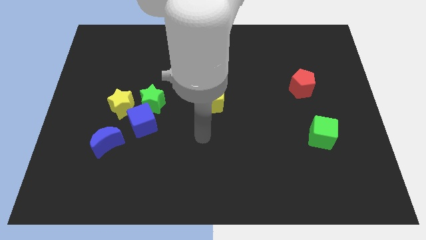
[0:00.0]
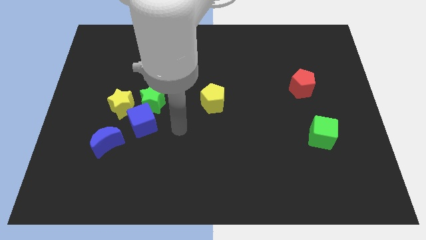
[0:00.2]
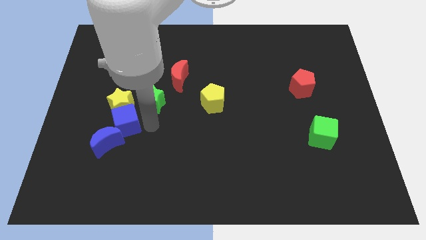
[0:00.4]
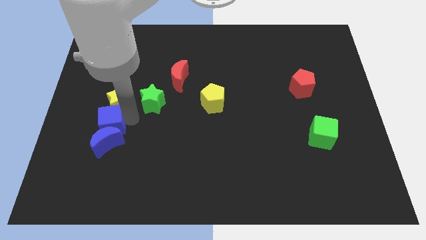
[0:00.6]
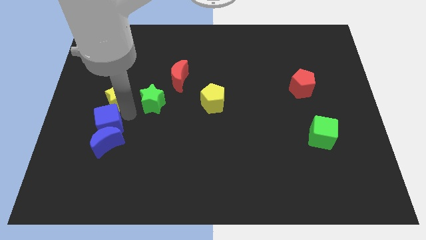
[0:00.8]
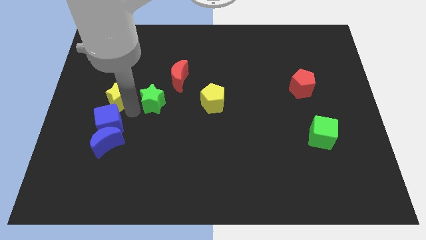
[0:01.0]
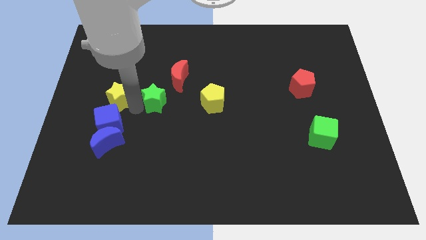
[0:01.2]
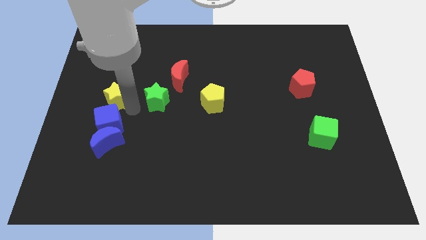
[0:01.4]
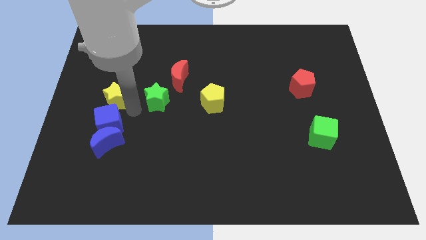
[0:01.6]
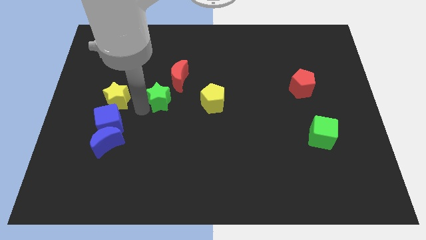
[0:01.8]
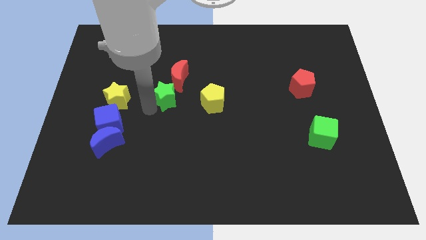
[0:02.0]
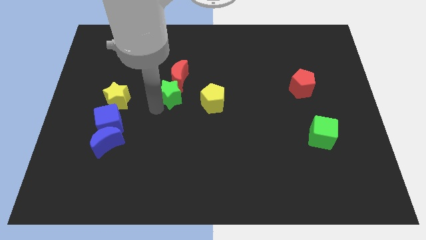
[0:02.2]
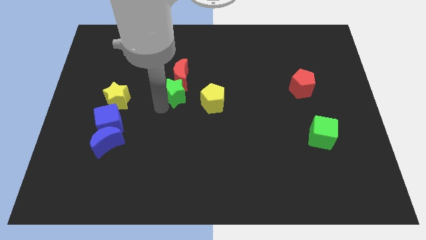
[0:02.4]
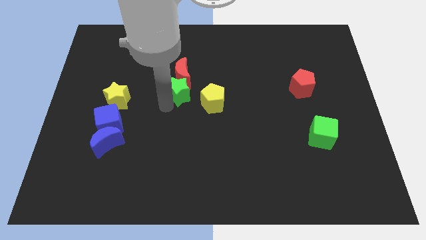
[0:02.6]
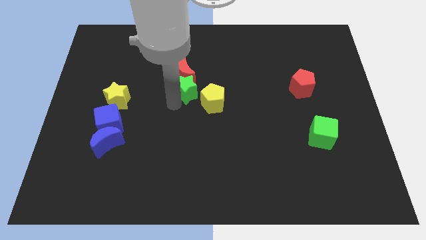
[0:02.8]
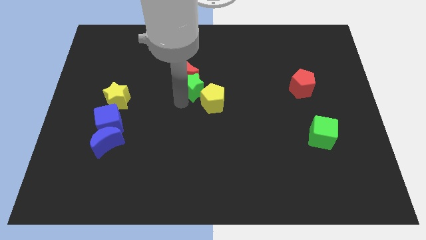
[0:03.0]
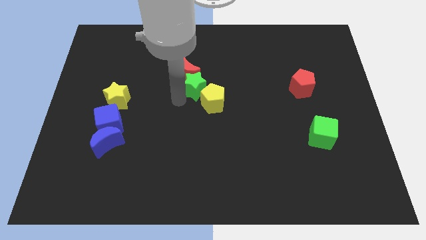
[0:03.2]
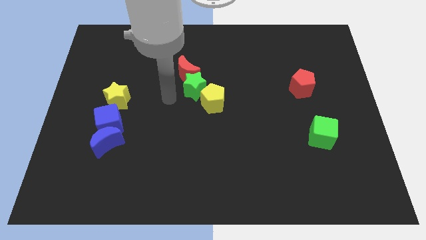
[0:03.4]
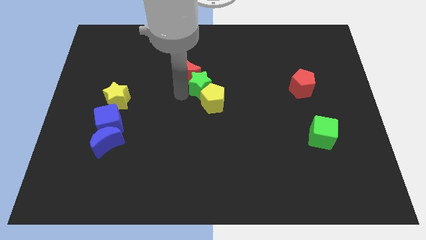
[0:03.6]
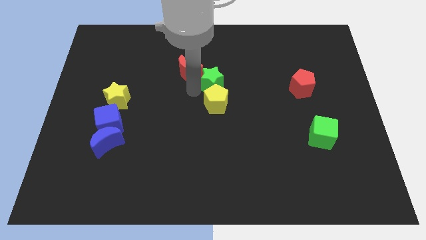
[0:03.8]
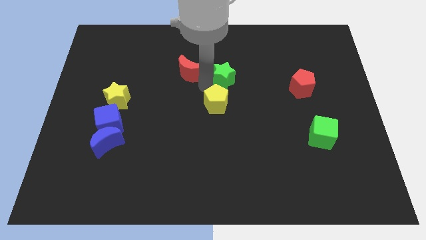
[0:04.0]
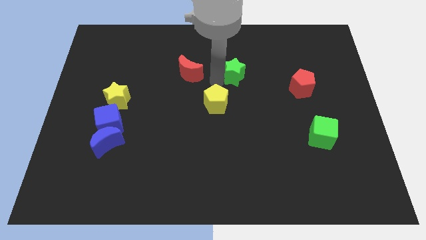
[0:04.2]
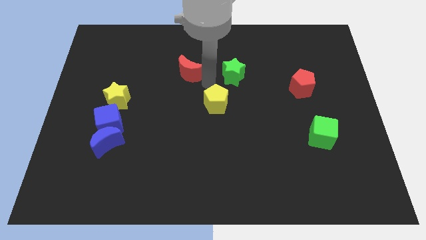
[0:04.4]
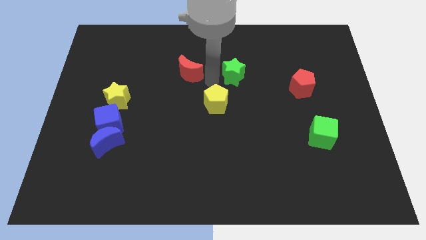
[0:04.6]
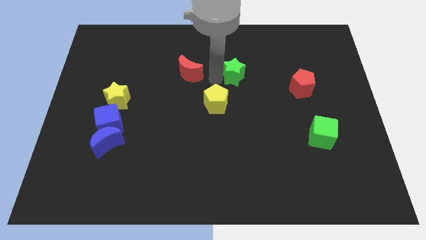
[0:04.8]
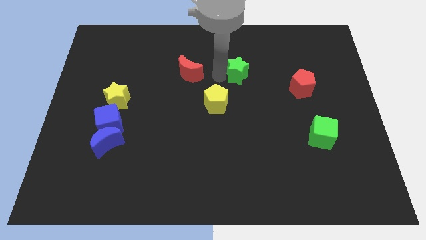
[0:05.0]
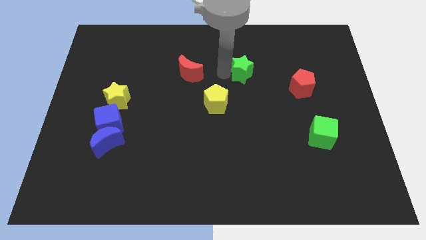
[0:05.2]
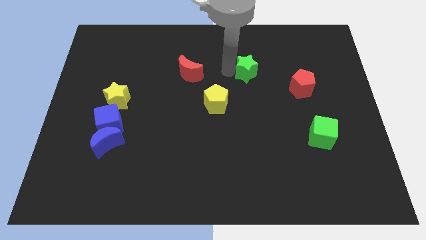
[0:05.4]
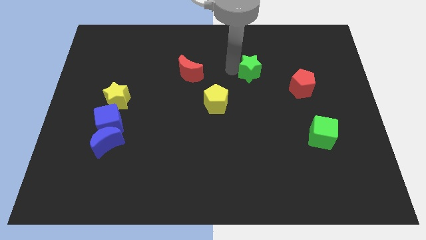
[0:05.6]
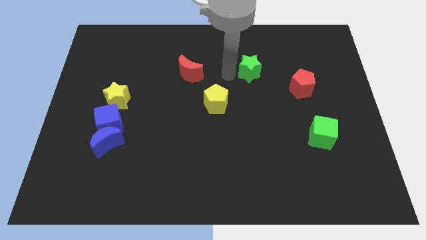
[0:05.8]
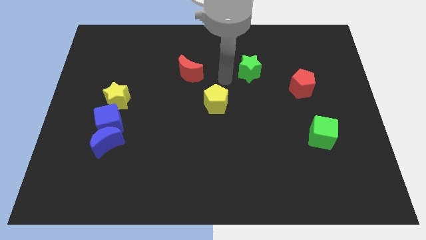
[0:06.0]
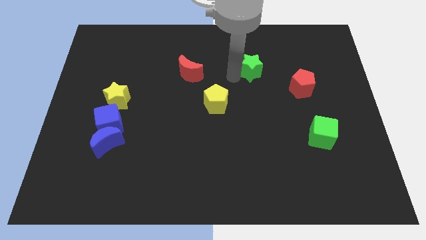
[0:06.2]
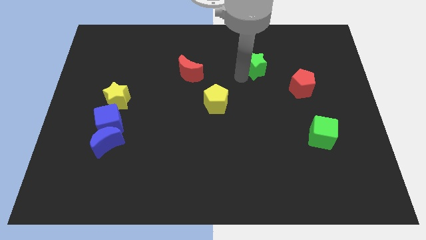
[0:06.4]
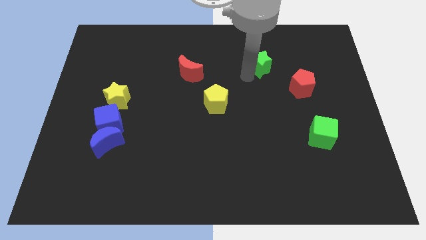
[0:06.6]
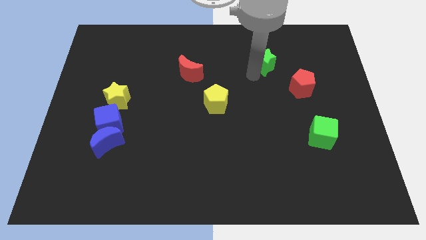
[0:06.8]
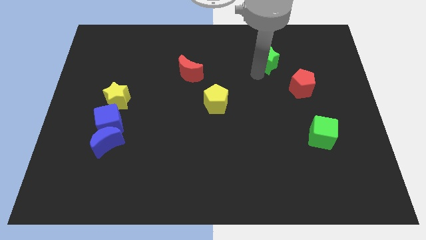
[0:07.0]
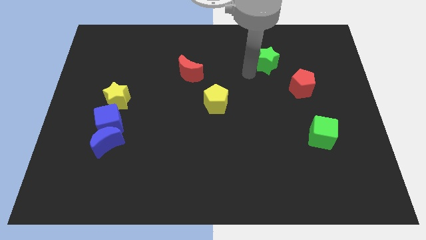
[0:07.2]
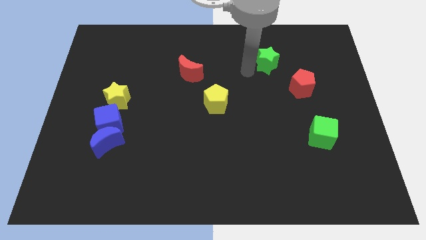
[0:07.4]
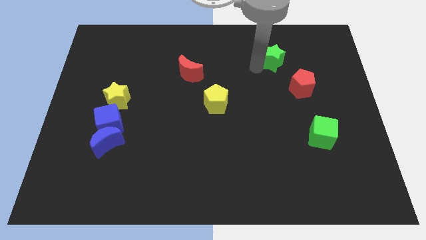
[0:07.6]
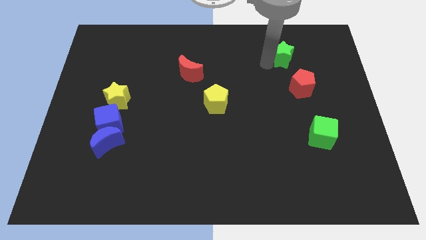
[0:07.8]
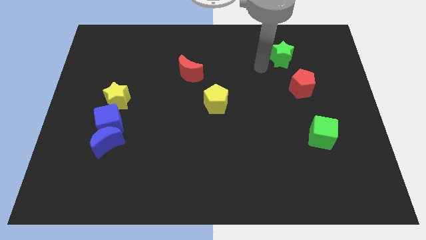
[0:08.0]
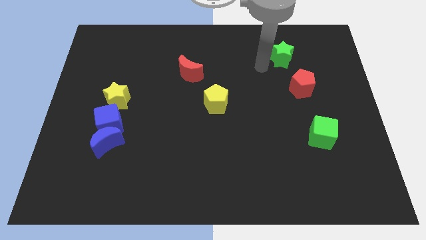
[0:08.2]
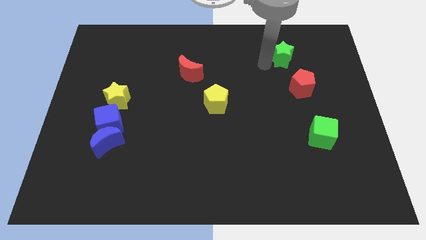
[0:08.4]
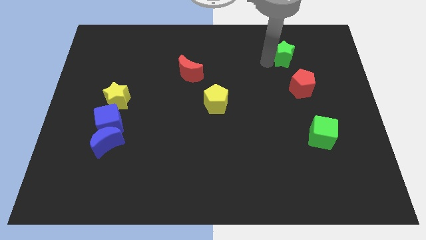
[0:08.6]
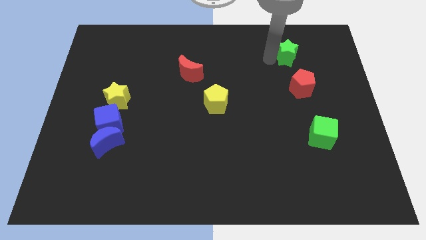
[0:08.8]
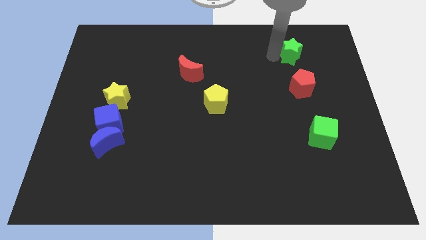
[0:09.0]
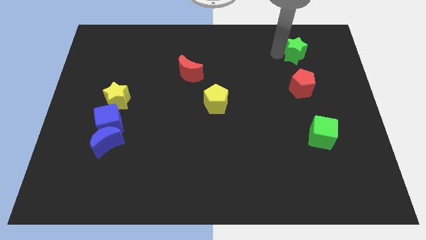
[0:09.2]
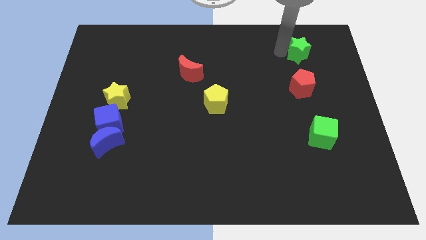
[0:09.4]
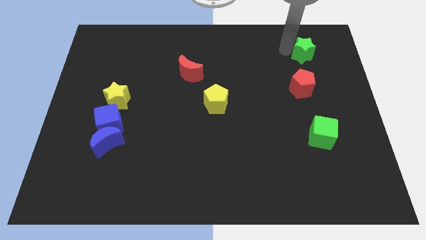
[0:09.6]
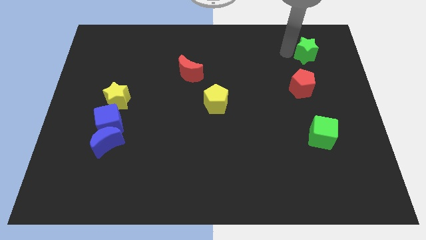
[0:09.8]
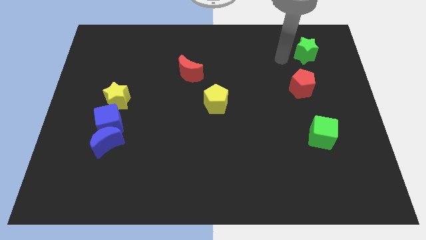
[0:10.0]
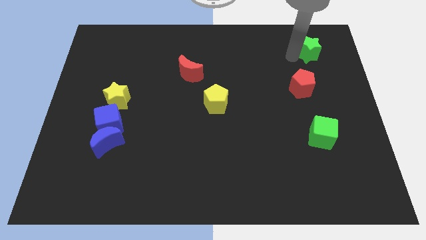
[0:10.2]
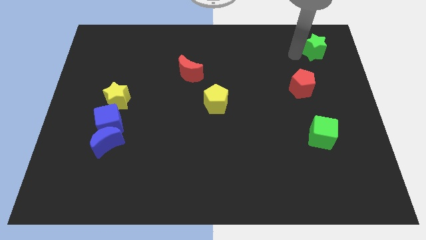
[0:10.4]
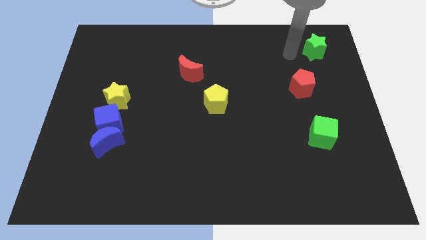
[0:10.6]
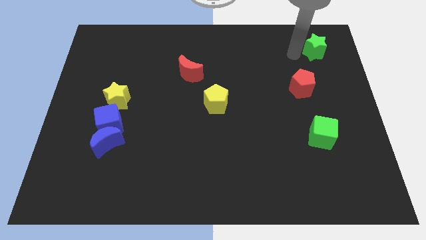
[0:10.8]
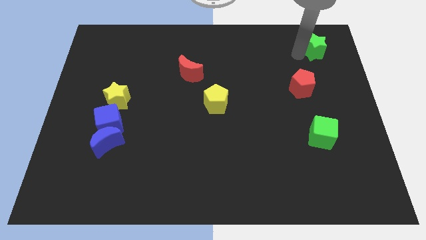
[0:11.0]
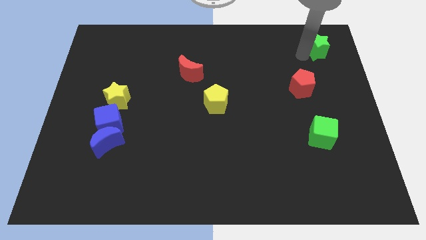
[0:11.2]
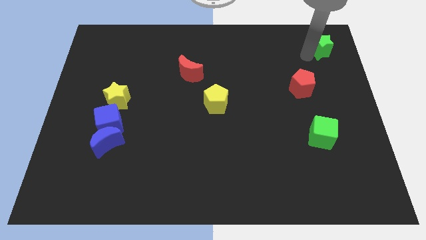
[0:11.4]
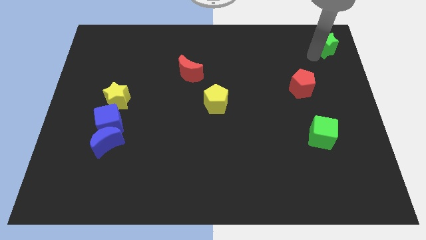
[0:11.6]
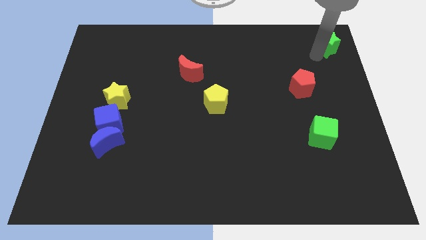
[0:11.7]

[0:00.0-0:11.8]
slide the green star to the top right

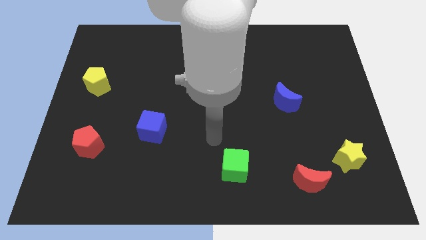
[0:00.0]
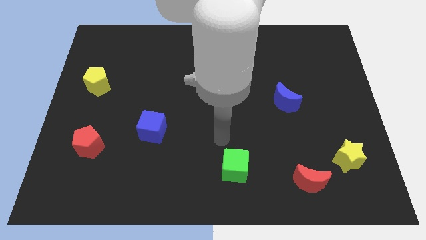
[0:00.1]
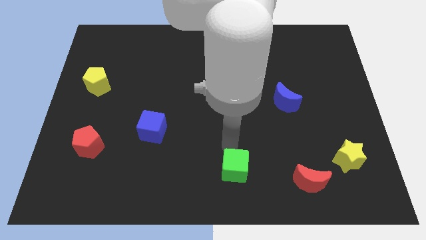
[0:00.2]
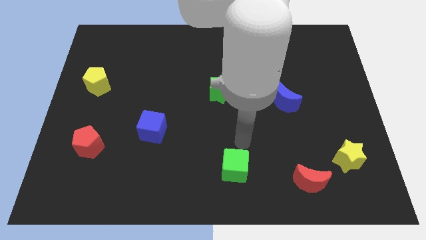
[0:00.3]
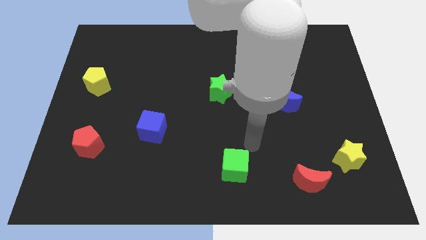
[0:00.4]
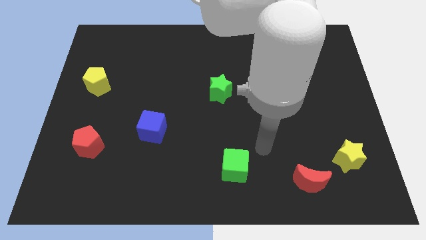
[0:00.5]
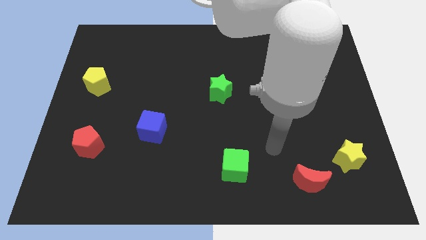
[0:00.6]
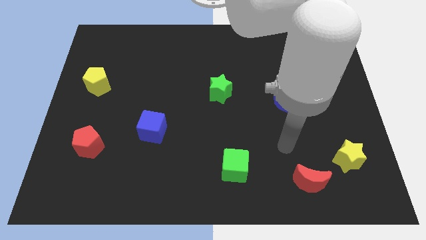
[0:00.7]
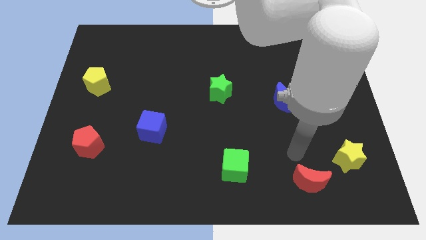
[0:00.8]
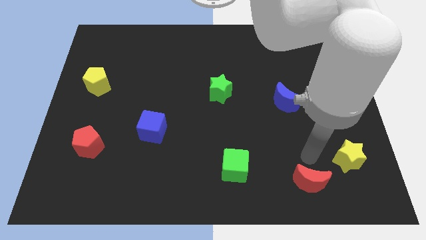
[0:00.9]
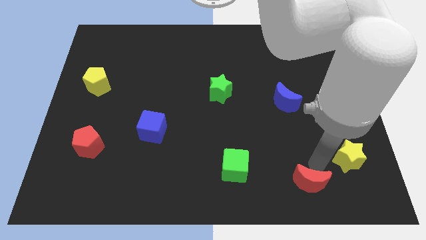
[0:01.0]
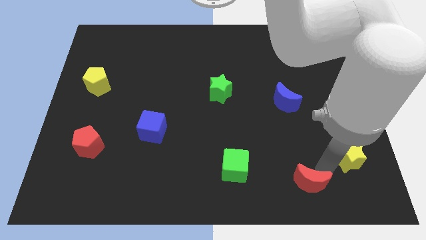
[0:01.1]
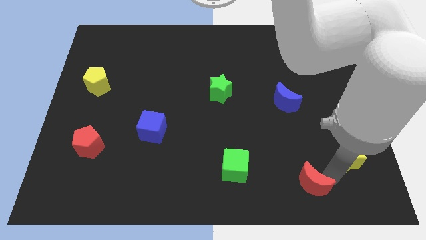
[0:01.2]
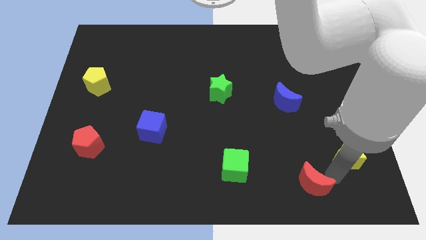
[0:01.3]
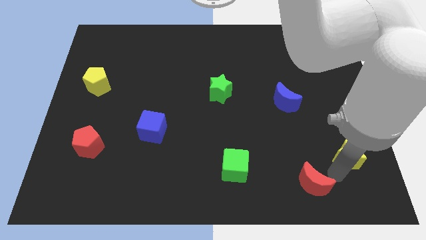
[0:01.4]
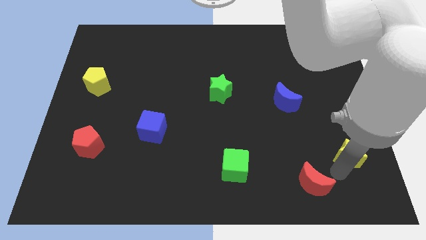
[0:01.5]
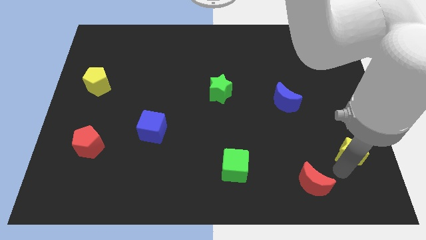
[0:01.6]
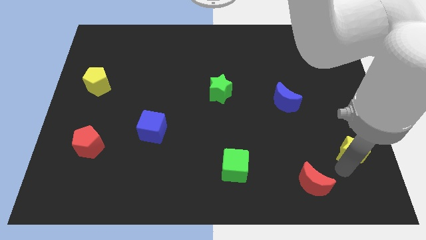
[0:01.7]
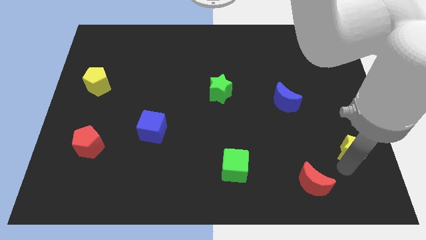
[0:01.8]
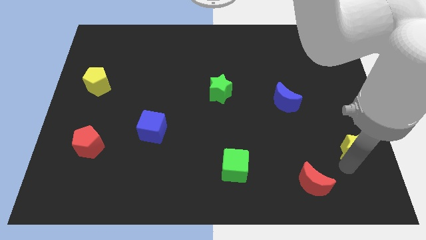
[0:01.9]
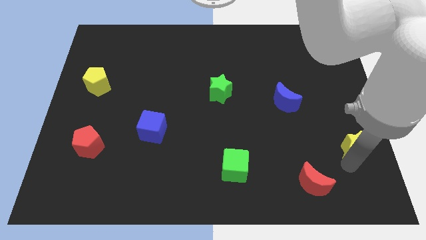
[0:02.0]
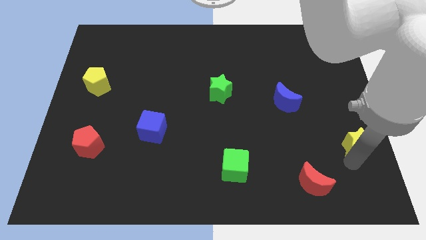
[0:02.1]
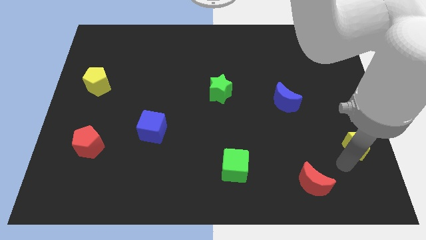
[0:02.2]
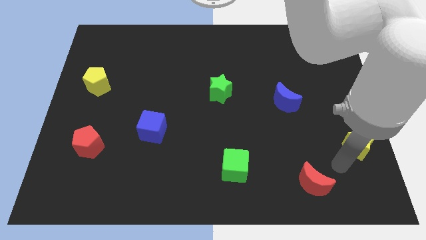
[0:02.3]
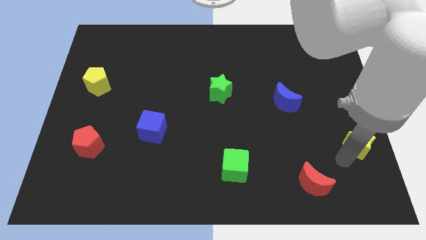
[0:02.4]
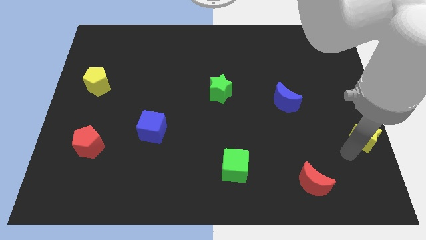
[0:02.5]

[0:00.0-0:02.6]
move the yellow star to the right side of the board
